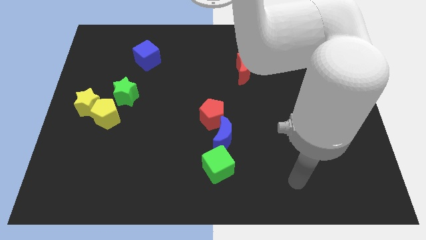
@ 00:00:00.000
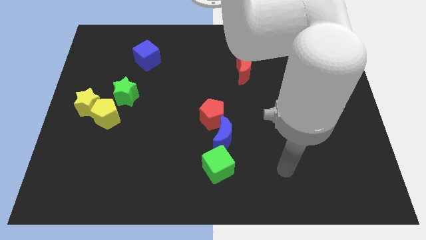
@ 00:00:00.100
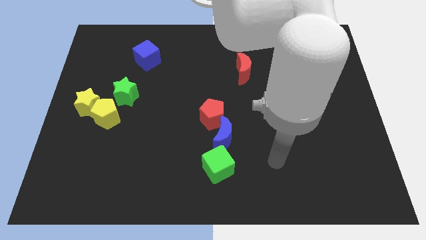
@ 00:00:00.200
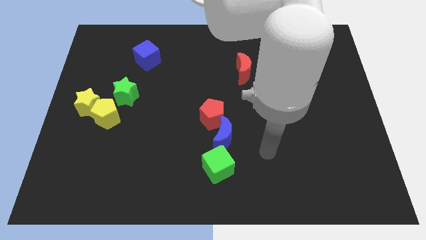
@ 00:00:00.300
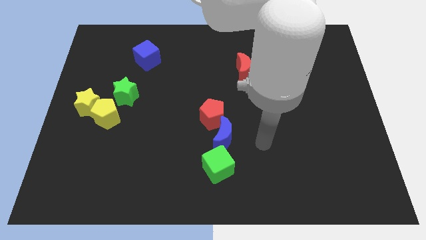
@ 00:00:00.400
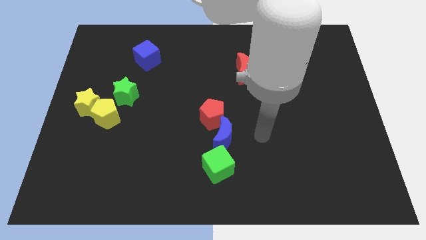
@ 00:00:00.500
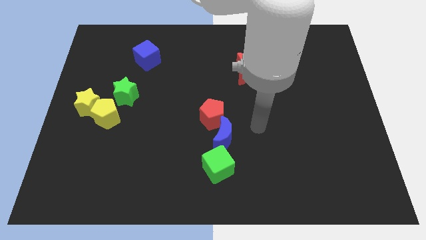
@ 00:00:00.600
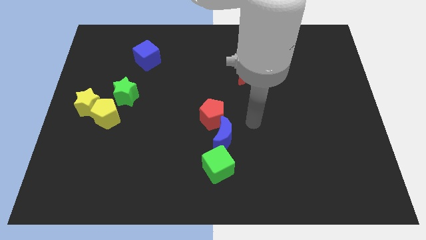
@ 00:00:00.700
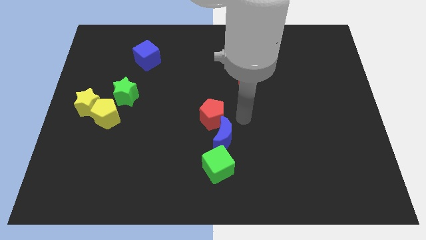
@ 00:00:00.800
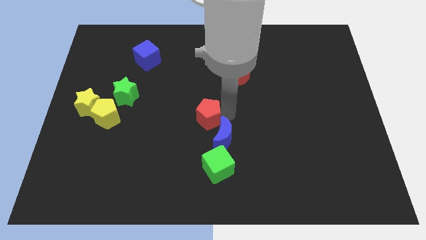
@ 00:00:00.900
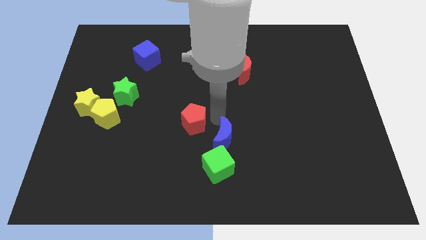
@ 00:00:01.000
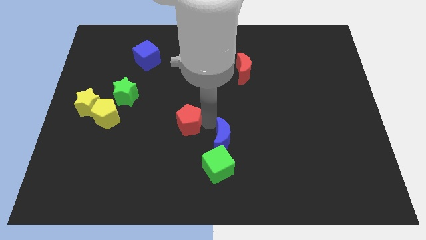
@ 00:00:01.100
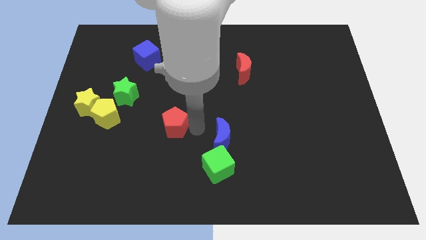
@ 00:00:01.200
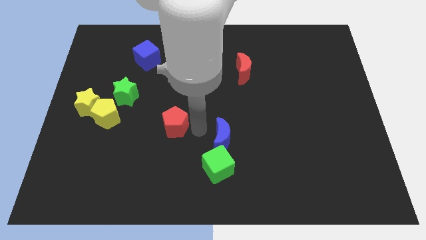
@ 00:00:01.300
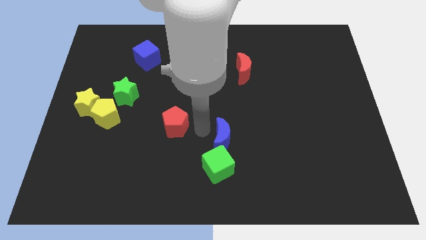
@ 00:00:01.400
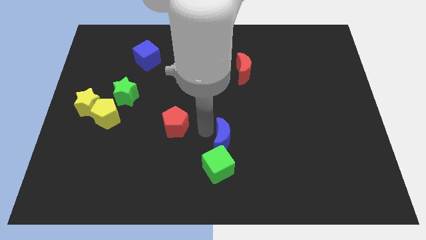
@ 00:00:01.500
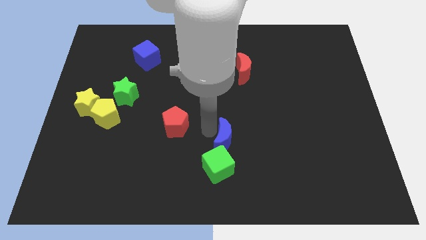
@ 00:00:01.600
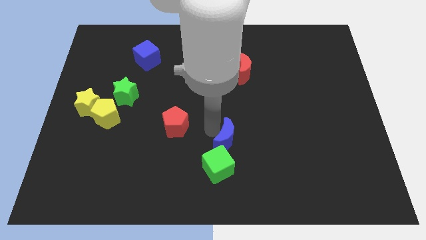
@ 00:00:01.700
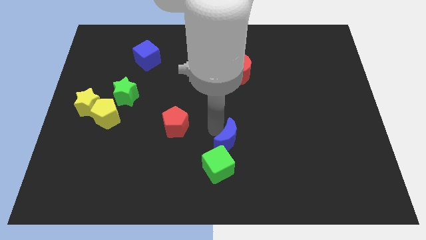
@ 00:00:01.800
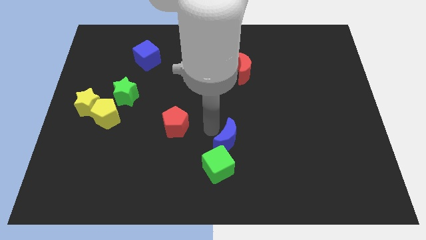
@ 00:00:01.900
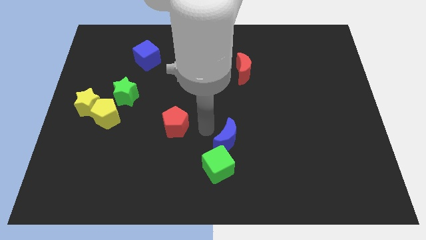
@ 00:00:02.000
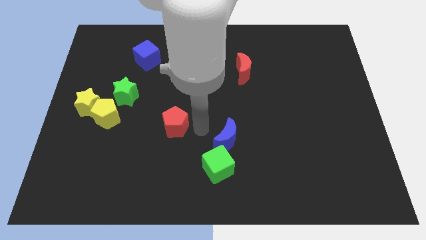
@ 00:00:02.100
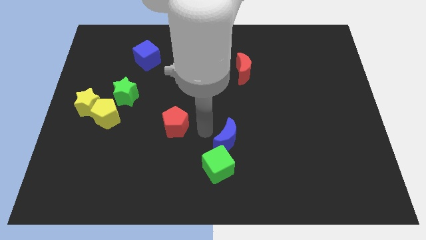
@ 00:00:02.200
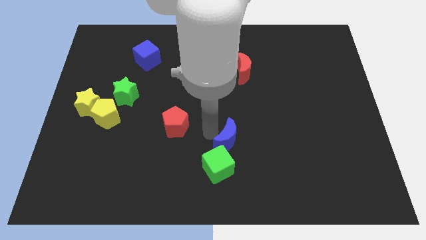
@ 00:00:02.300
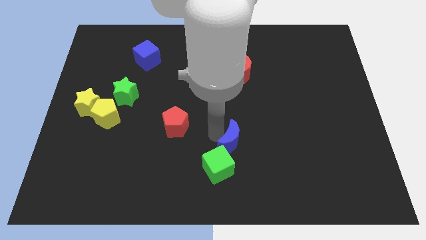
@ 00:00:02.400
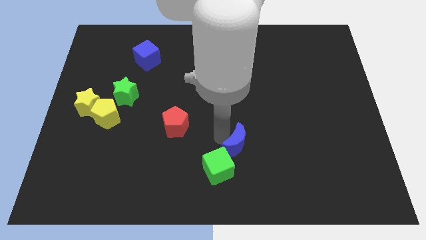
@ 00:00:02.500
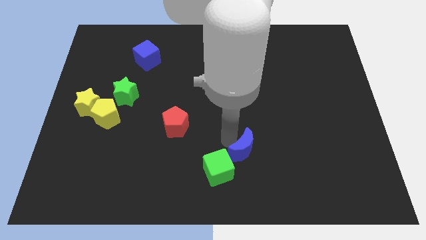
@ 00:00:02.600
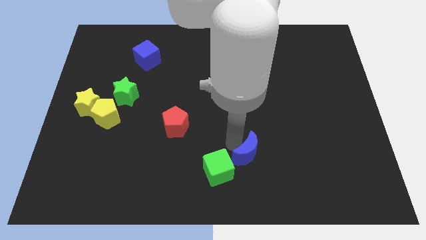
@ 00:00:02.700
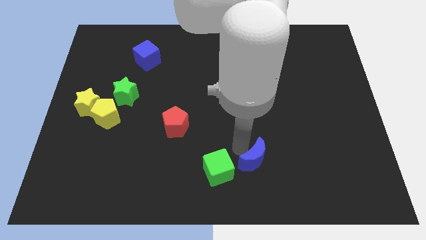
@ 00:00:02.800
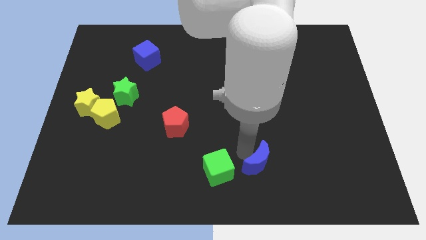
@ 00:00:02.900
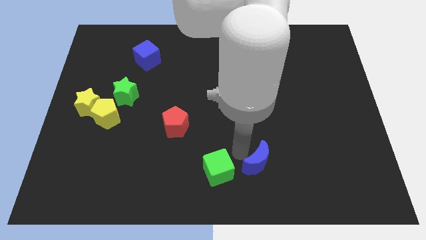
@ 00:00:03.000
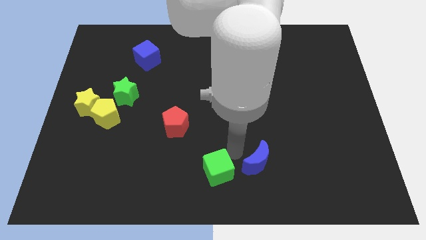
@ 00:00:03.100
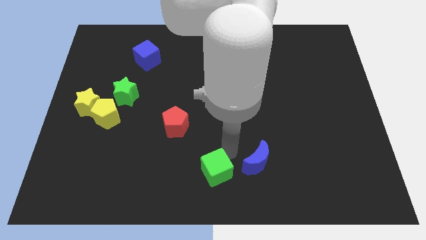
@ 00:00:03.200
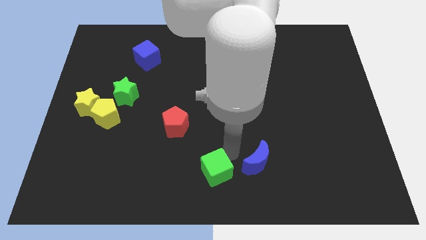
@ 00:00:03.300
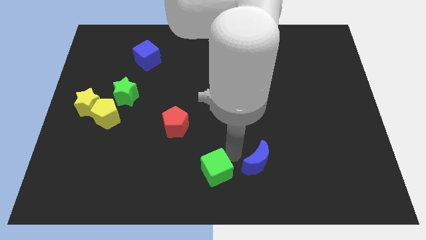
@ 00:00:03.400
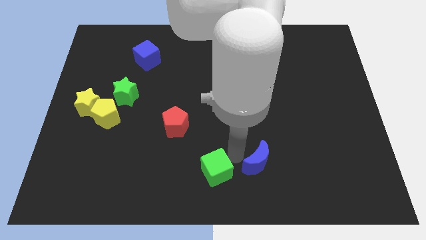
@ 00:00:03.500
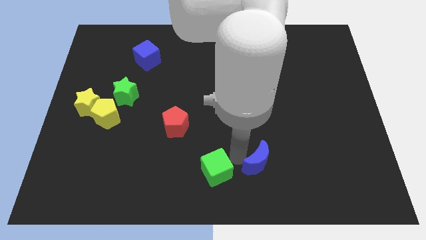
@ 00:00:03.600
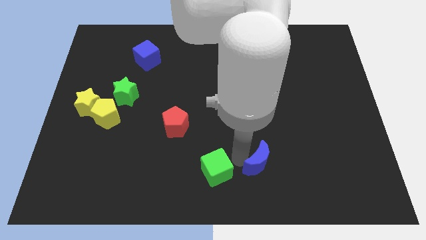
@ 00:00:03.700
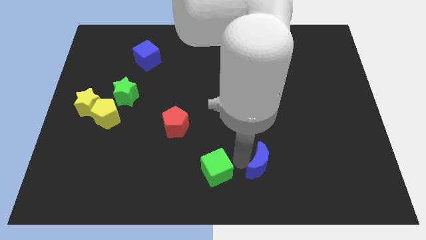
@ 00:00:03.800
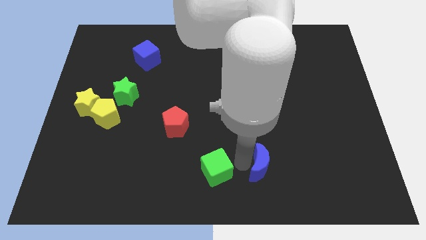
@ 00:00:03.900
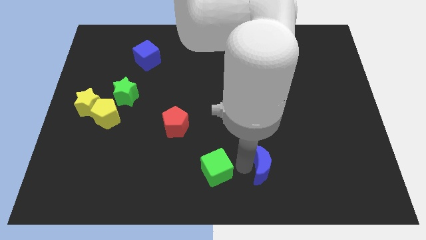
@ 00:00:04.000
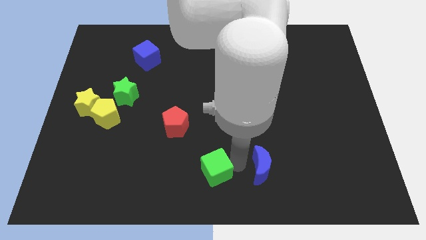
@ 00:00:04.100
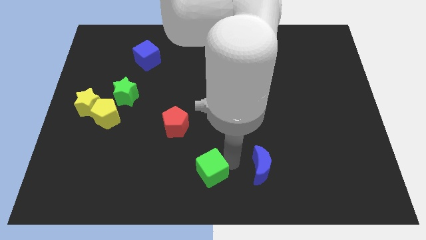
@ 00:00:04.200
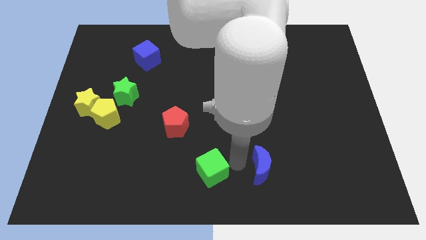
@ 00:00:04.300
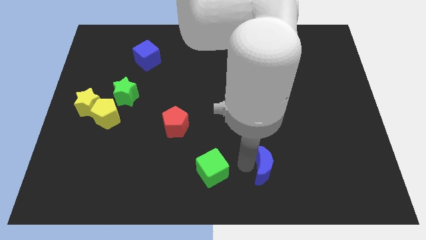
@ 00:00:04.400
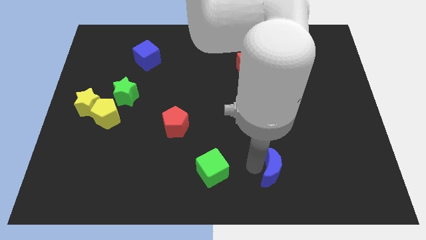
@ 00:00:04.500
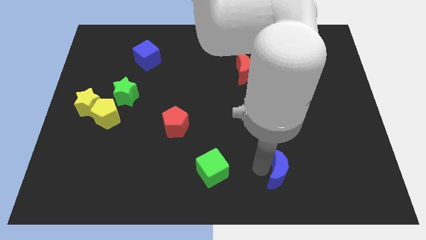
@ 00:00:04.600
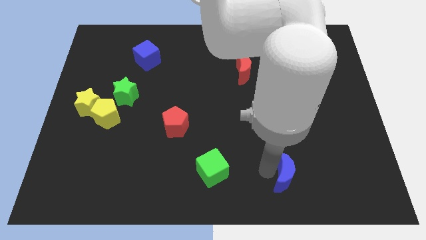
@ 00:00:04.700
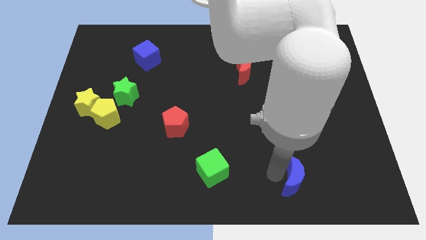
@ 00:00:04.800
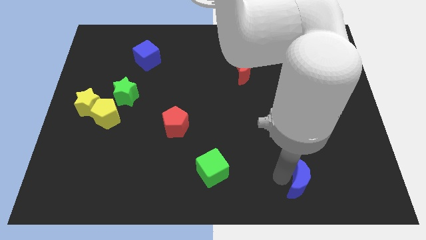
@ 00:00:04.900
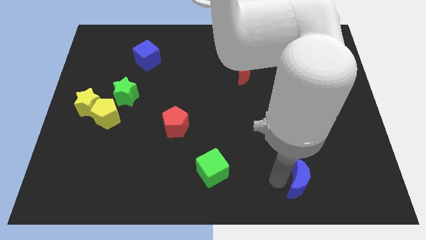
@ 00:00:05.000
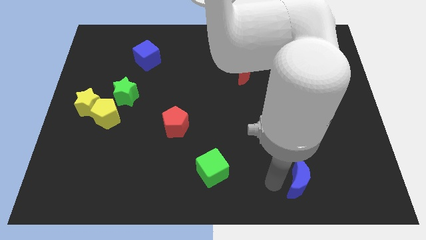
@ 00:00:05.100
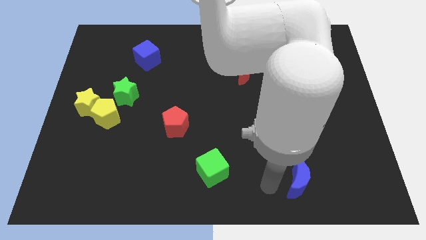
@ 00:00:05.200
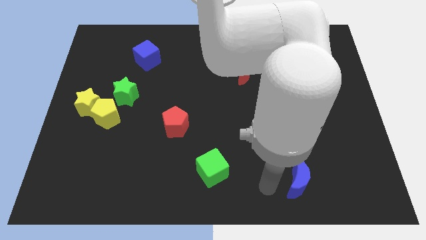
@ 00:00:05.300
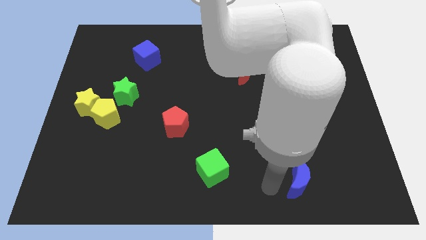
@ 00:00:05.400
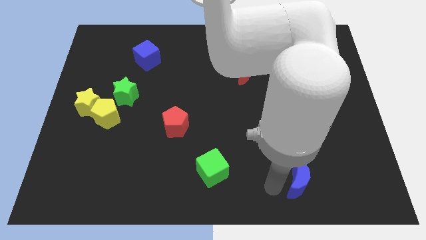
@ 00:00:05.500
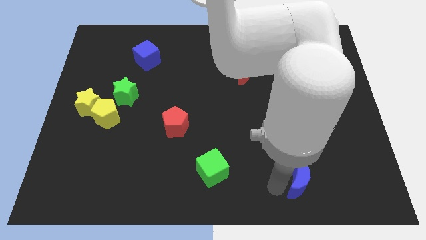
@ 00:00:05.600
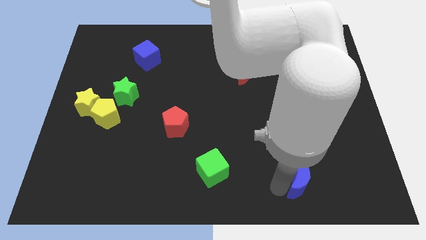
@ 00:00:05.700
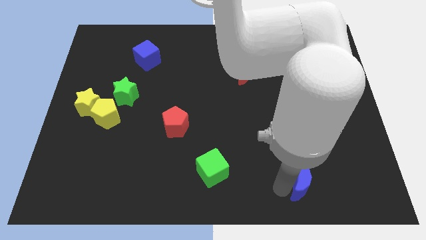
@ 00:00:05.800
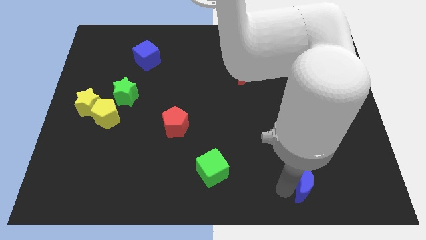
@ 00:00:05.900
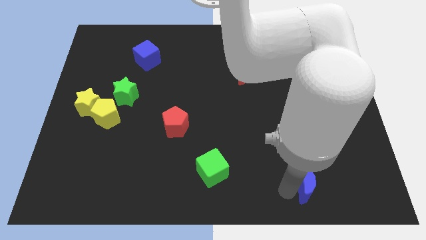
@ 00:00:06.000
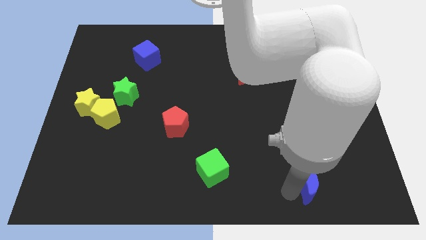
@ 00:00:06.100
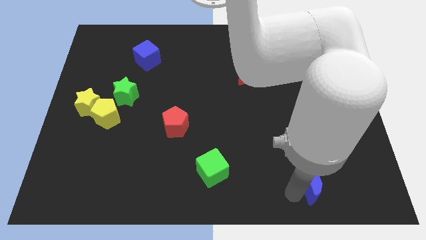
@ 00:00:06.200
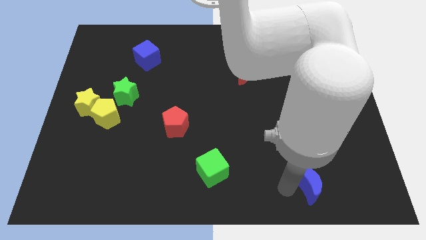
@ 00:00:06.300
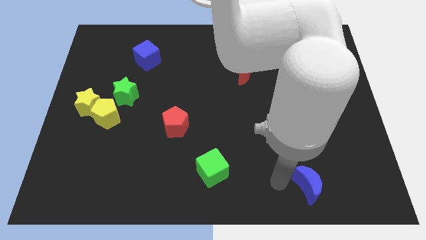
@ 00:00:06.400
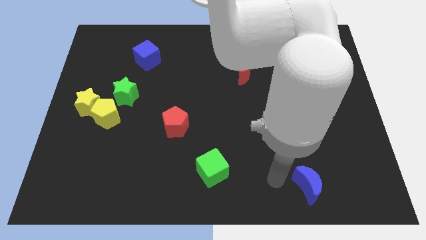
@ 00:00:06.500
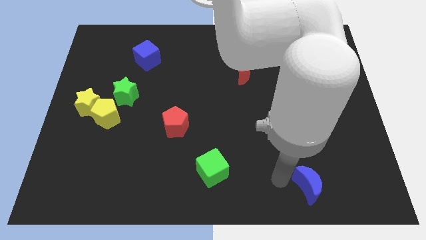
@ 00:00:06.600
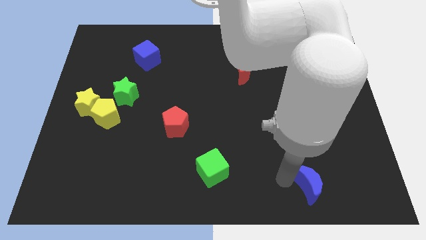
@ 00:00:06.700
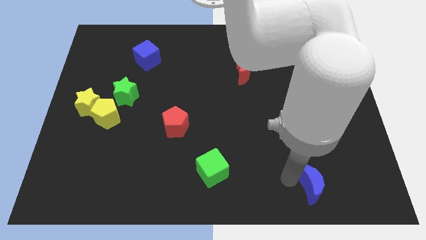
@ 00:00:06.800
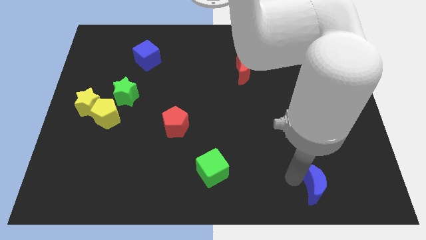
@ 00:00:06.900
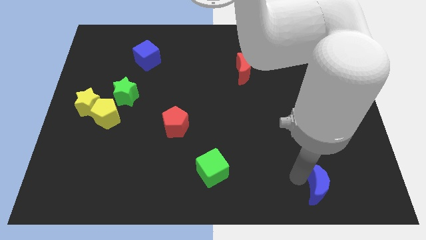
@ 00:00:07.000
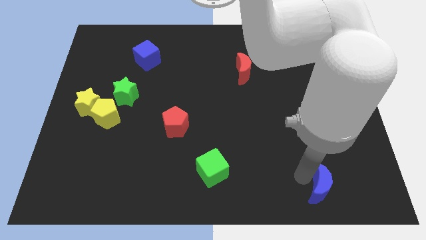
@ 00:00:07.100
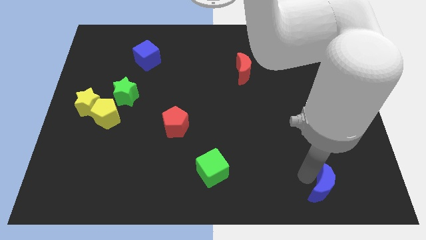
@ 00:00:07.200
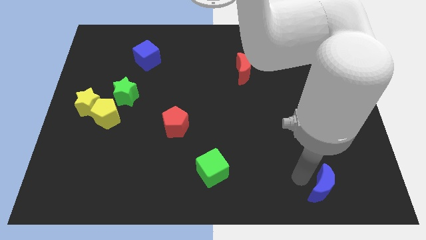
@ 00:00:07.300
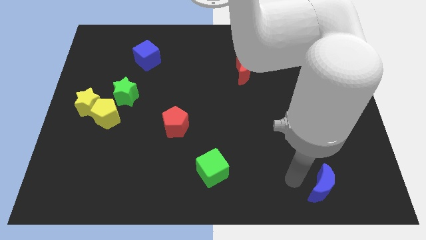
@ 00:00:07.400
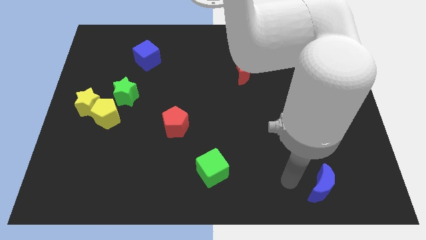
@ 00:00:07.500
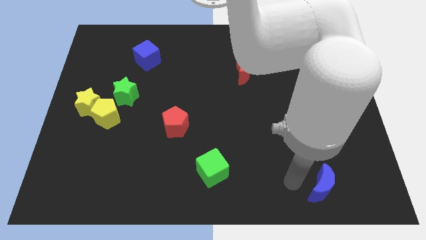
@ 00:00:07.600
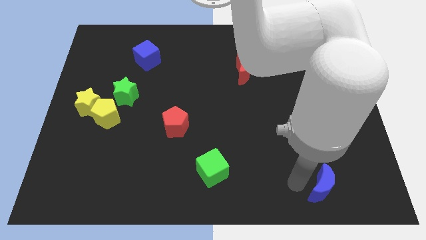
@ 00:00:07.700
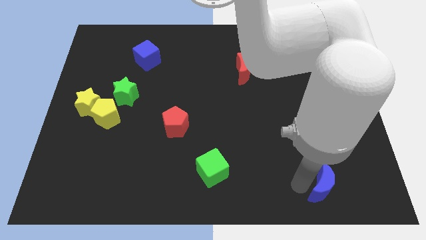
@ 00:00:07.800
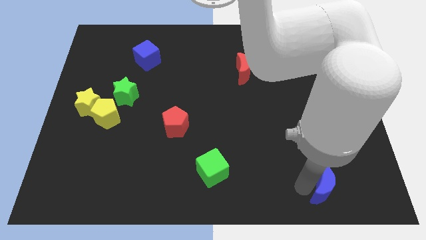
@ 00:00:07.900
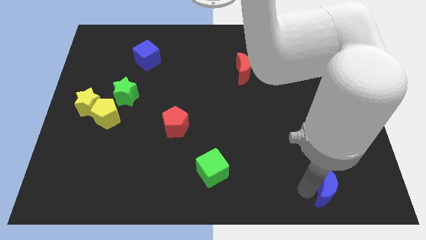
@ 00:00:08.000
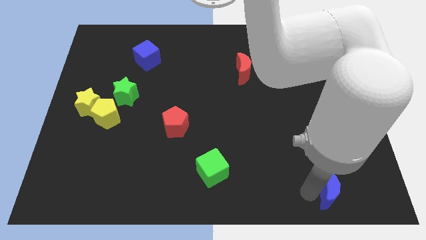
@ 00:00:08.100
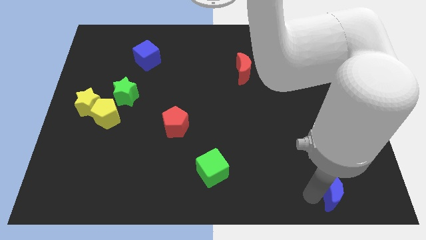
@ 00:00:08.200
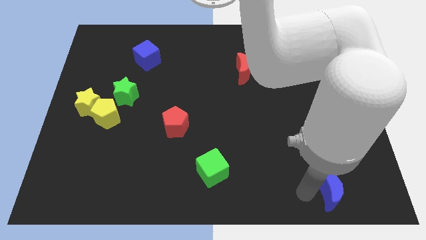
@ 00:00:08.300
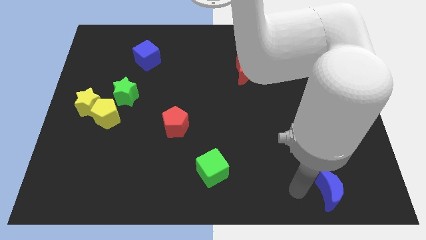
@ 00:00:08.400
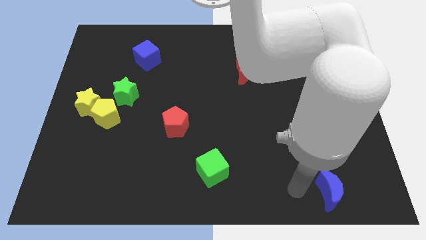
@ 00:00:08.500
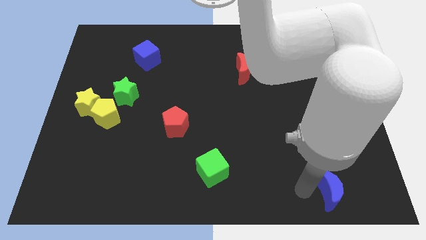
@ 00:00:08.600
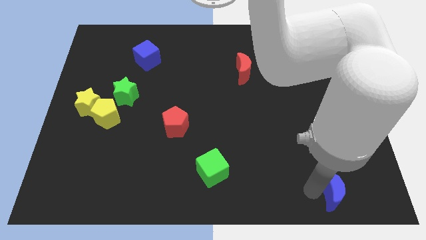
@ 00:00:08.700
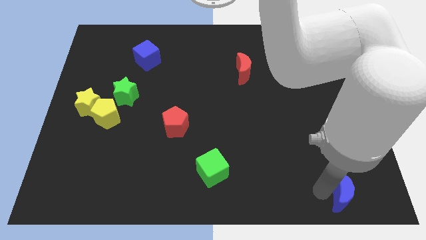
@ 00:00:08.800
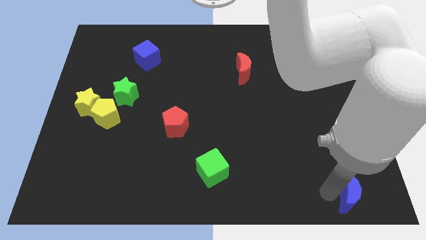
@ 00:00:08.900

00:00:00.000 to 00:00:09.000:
push the blue moon to the lower right corner
